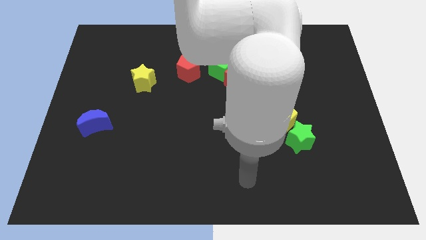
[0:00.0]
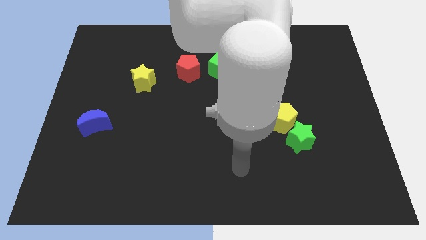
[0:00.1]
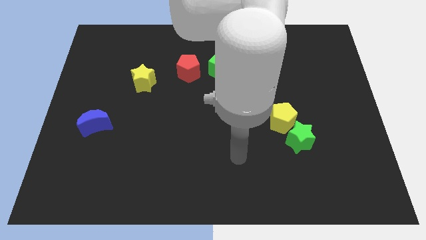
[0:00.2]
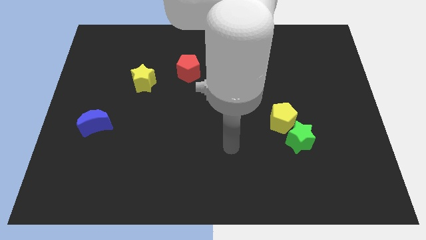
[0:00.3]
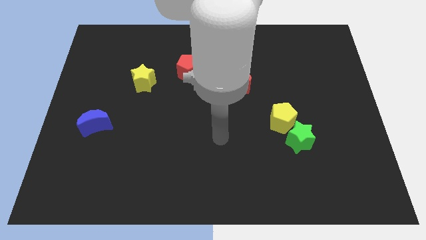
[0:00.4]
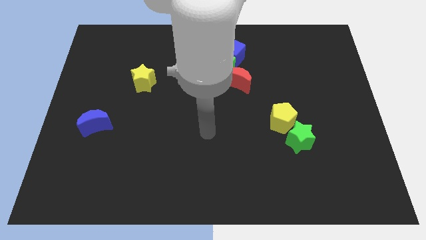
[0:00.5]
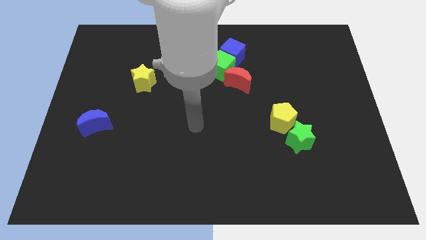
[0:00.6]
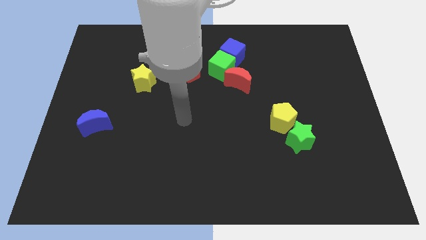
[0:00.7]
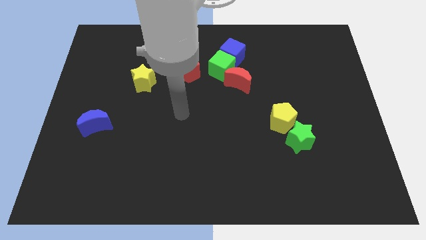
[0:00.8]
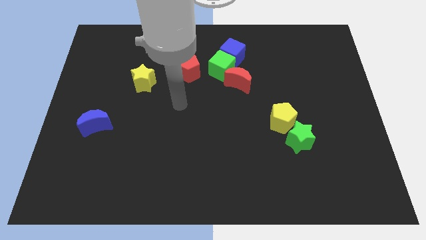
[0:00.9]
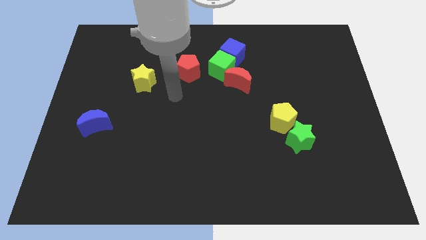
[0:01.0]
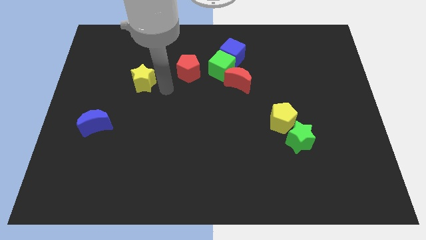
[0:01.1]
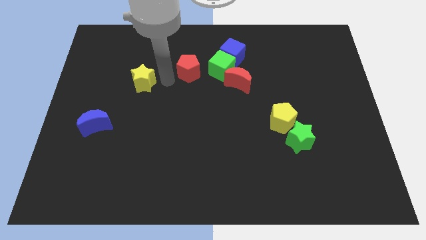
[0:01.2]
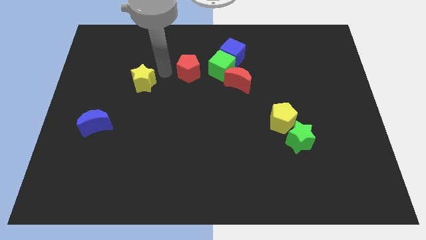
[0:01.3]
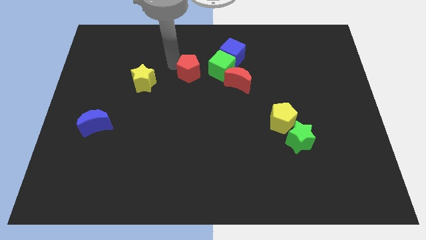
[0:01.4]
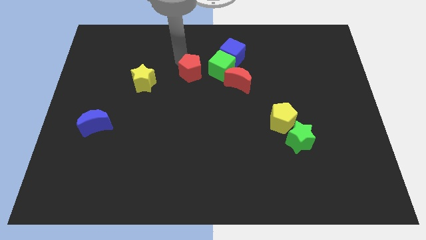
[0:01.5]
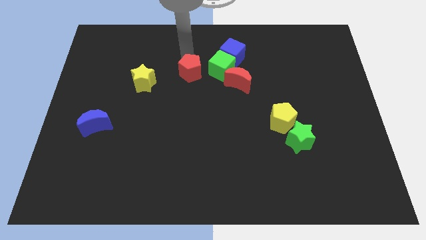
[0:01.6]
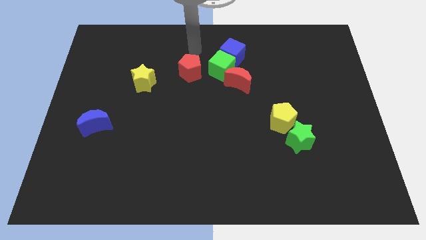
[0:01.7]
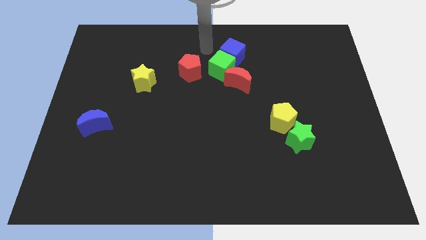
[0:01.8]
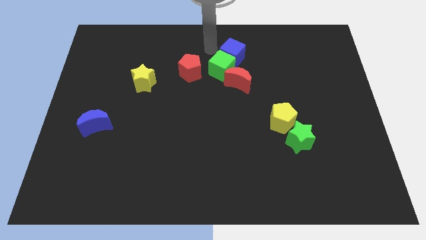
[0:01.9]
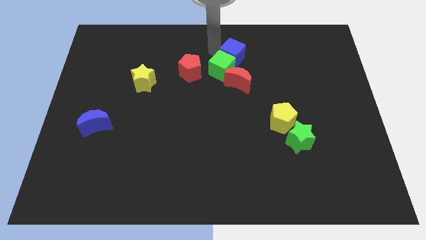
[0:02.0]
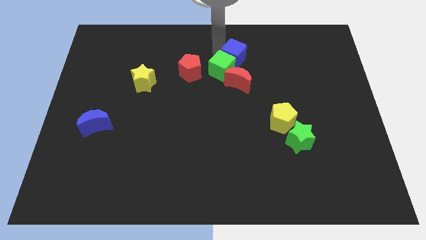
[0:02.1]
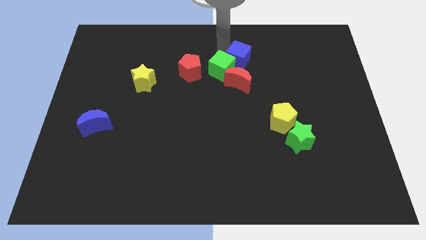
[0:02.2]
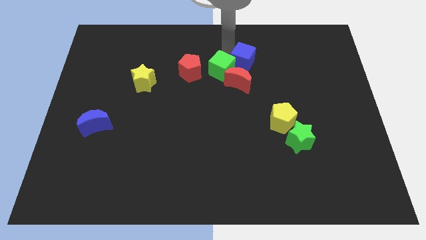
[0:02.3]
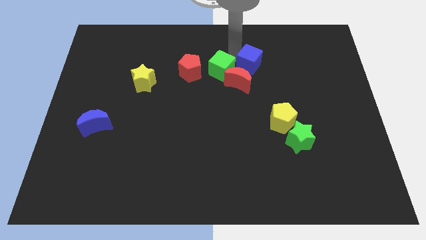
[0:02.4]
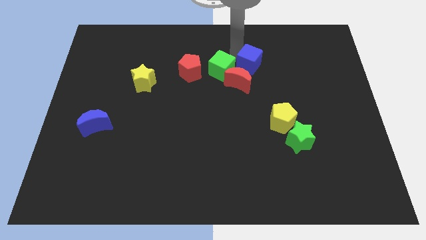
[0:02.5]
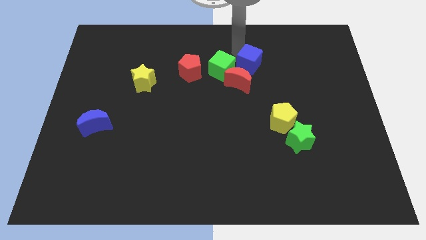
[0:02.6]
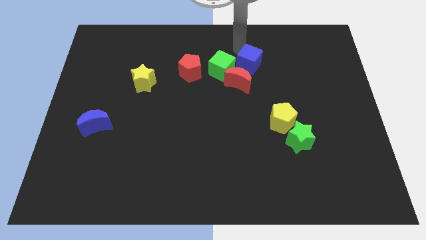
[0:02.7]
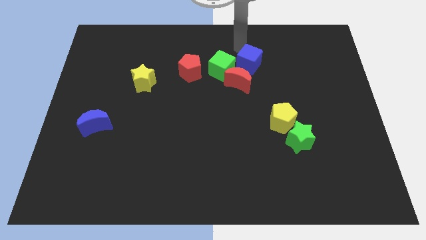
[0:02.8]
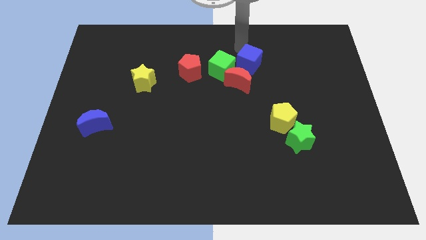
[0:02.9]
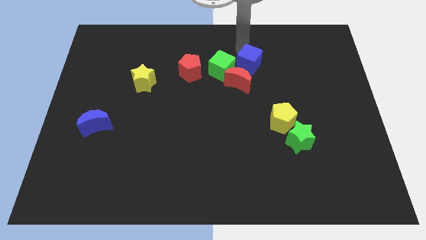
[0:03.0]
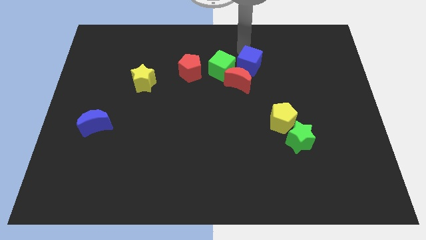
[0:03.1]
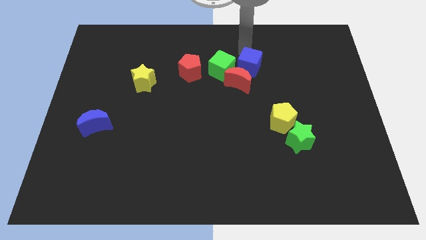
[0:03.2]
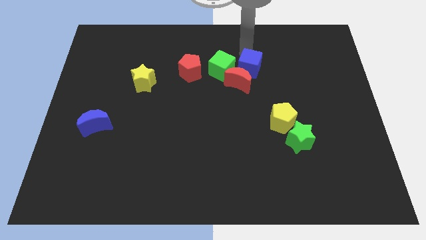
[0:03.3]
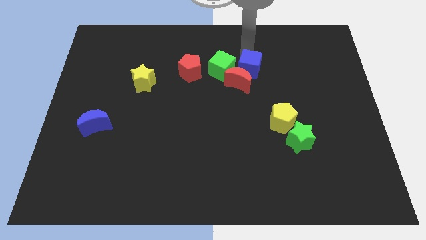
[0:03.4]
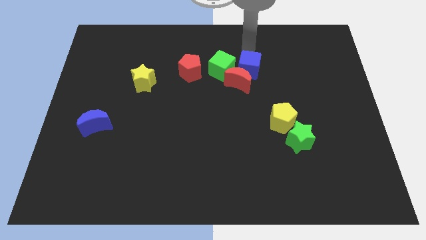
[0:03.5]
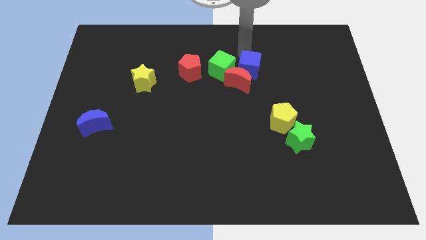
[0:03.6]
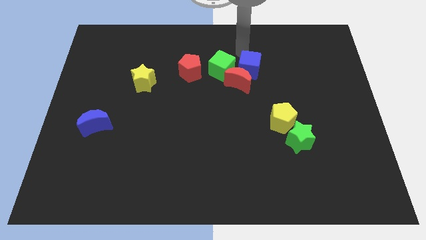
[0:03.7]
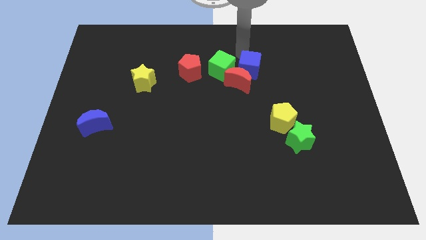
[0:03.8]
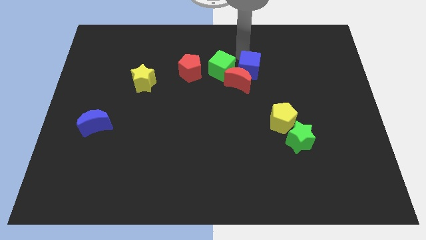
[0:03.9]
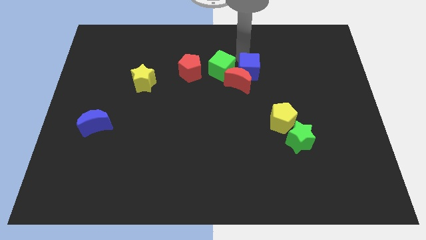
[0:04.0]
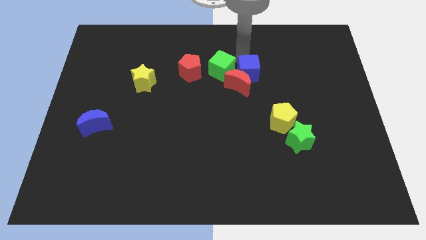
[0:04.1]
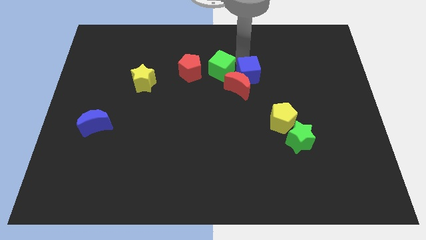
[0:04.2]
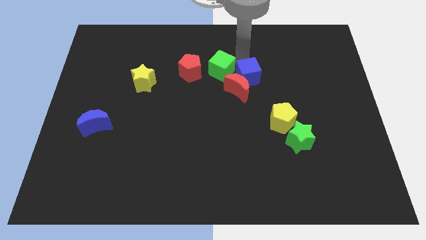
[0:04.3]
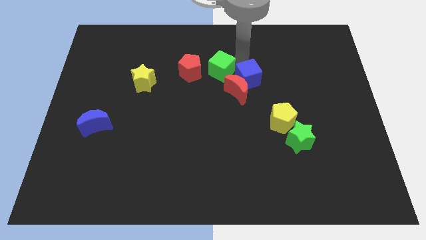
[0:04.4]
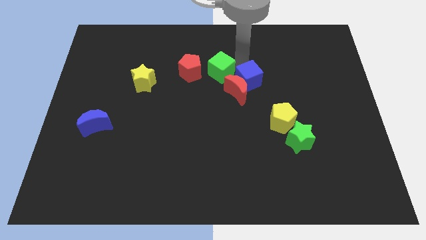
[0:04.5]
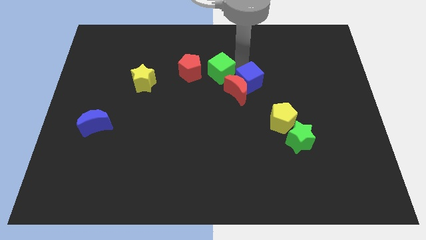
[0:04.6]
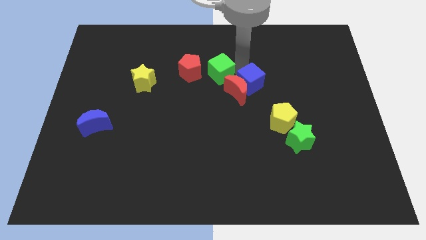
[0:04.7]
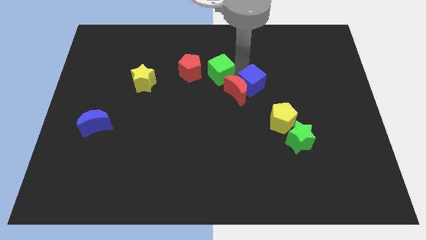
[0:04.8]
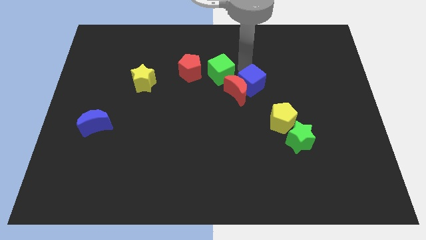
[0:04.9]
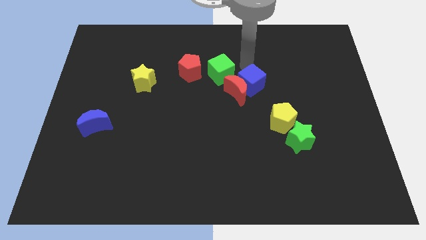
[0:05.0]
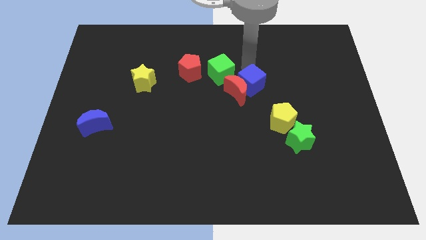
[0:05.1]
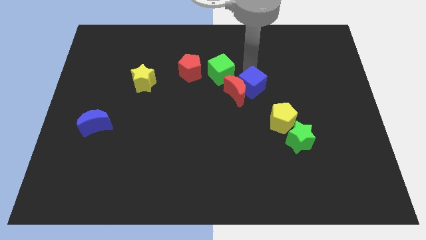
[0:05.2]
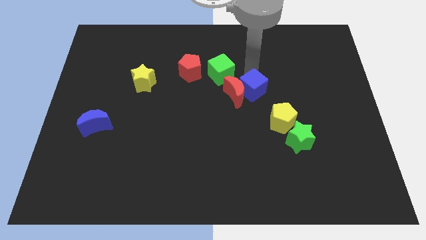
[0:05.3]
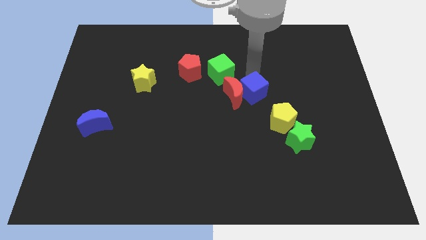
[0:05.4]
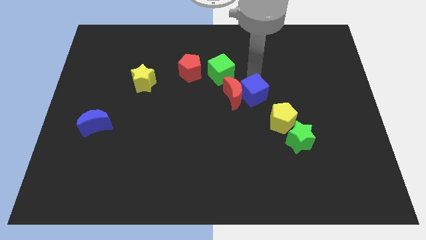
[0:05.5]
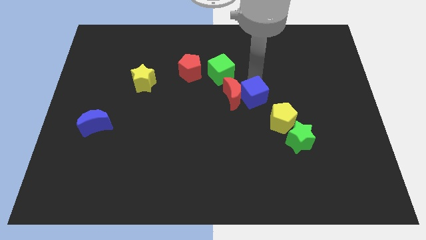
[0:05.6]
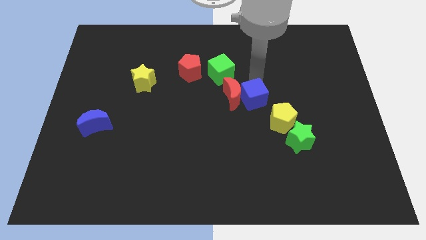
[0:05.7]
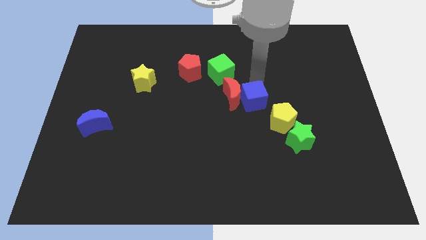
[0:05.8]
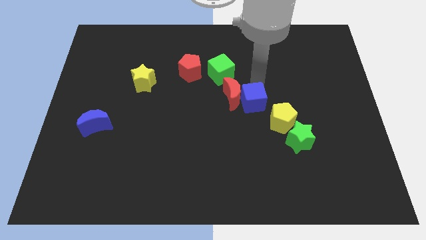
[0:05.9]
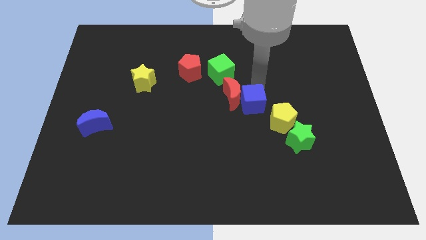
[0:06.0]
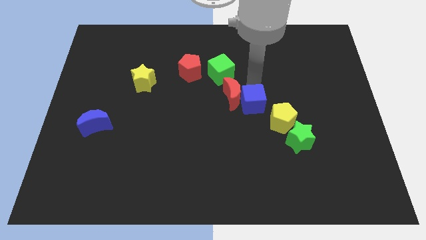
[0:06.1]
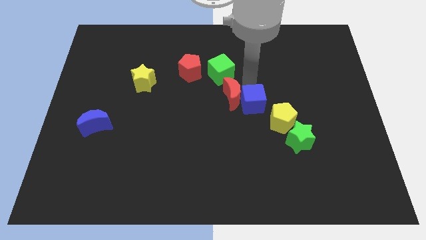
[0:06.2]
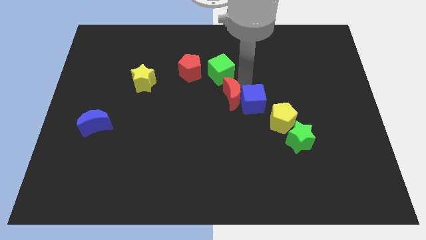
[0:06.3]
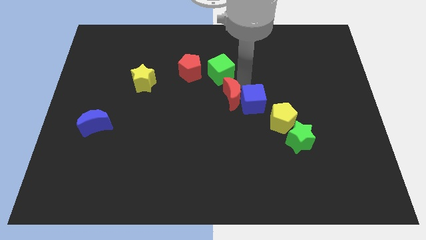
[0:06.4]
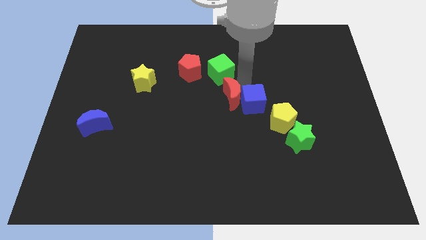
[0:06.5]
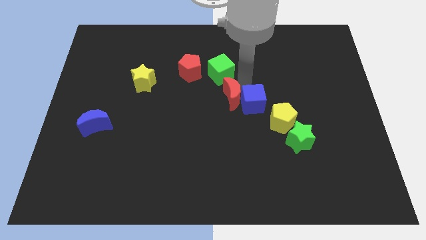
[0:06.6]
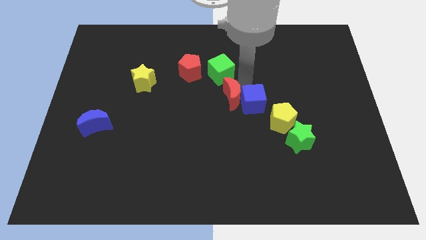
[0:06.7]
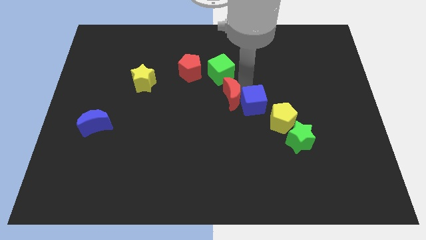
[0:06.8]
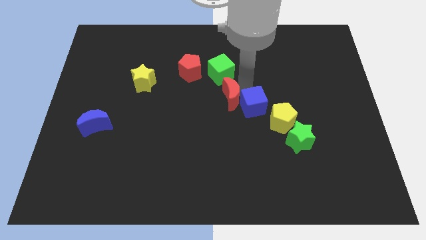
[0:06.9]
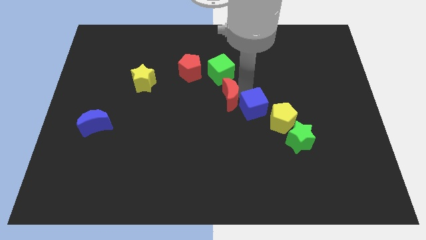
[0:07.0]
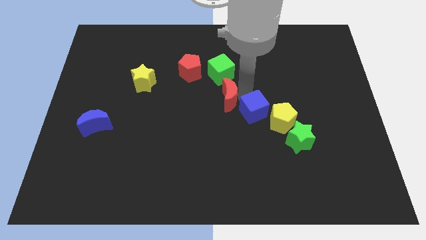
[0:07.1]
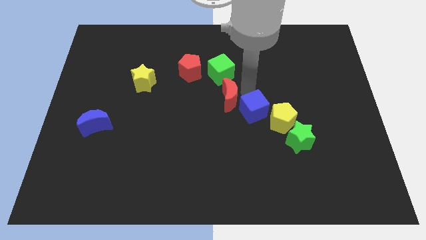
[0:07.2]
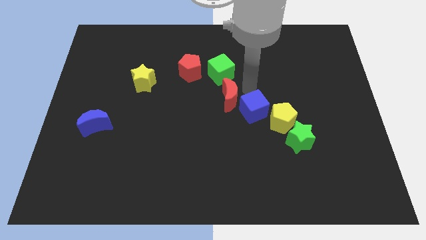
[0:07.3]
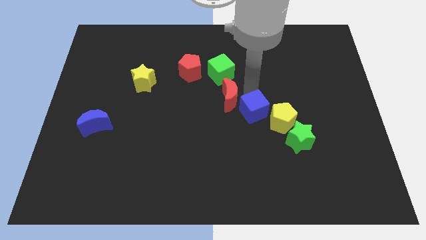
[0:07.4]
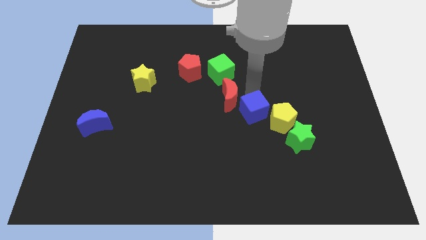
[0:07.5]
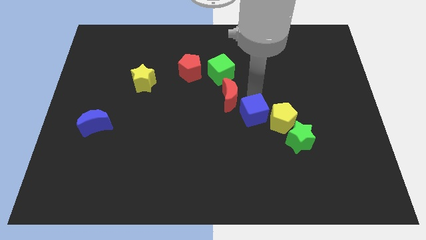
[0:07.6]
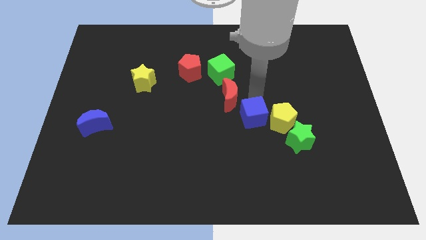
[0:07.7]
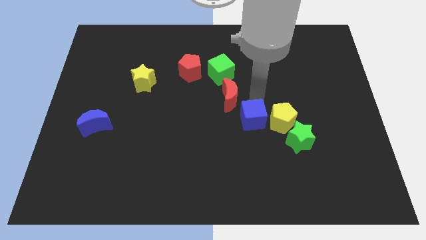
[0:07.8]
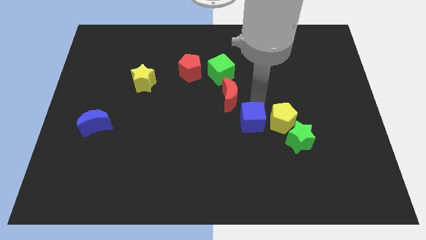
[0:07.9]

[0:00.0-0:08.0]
slide the blue cube diagonally down and to the left of the yellow pentagon
